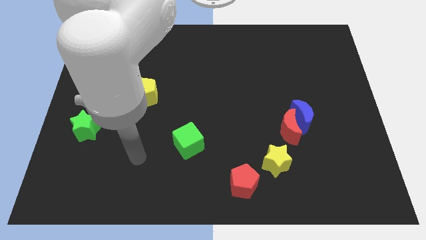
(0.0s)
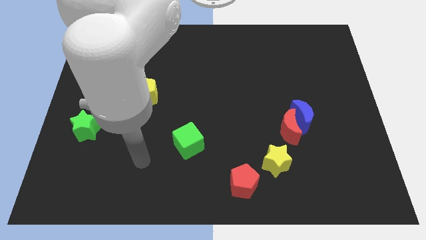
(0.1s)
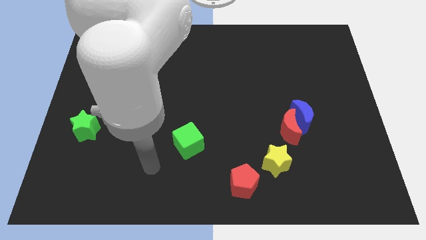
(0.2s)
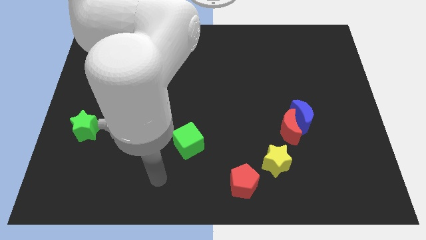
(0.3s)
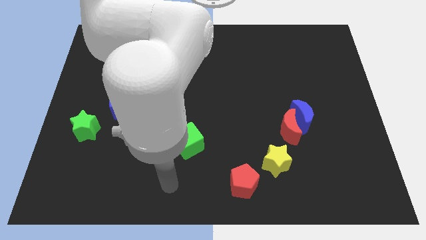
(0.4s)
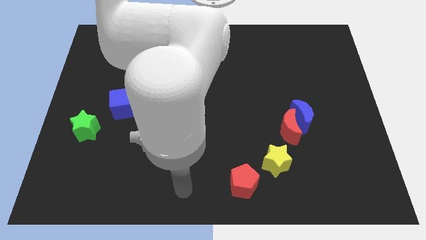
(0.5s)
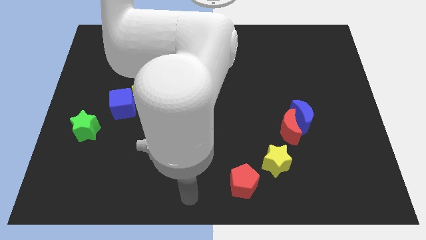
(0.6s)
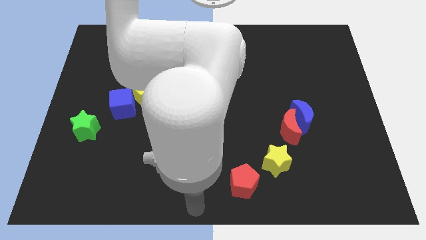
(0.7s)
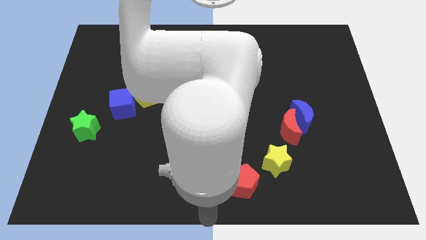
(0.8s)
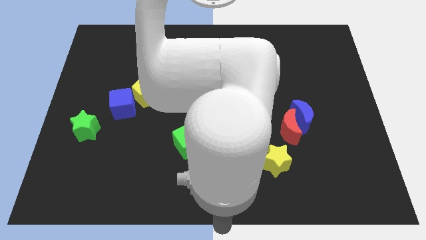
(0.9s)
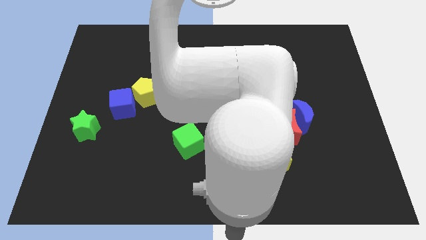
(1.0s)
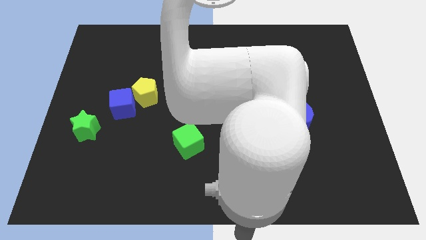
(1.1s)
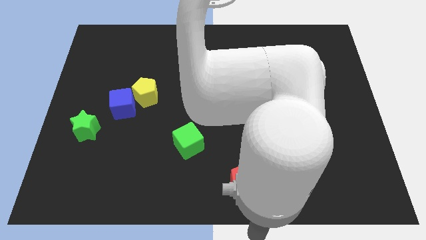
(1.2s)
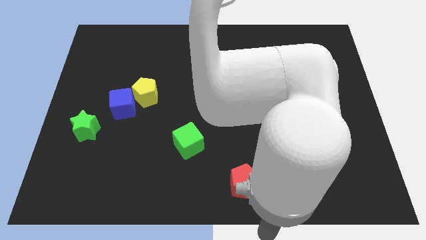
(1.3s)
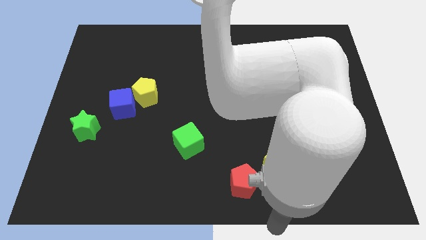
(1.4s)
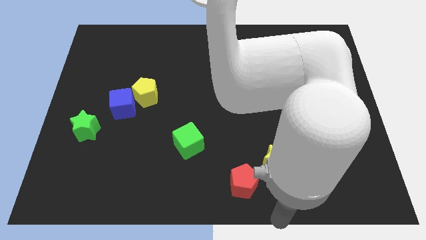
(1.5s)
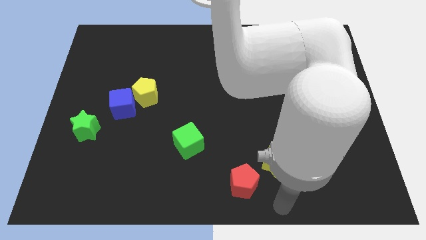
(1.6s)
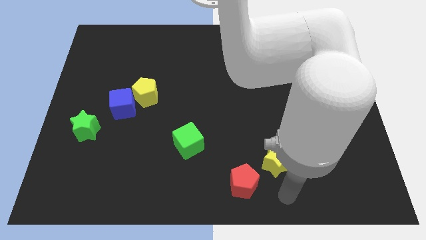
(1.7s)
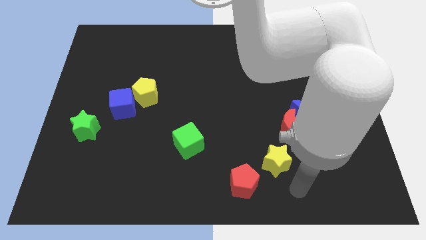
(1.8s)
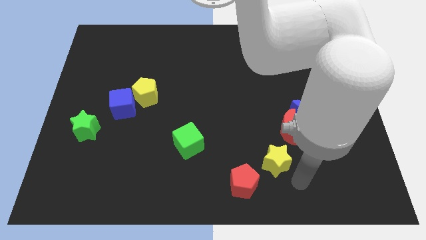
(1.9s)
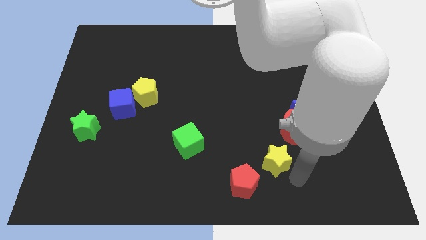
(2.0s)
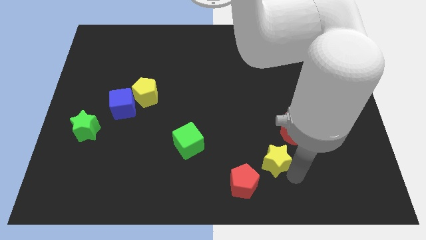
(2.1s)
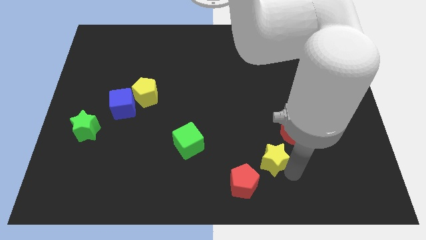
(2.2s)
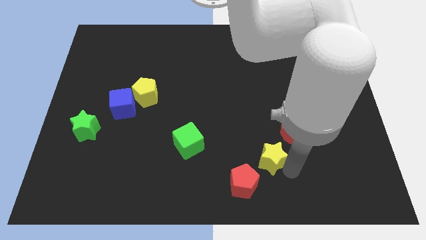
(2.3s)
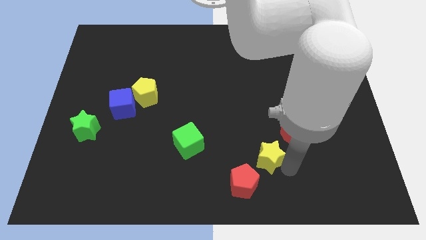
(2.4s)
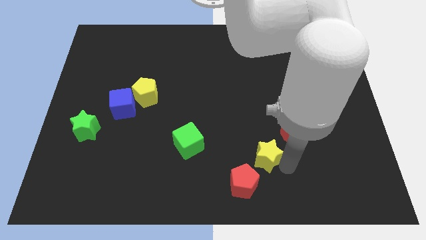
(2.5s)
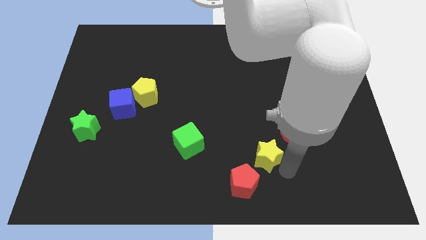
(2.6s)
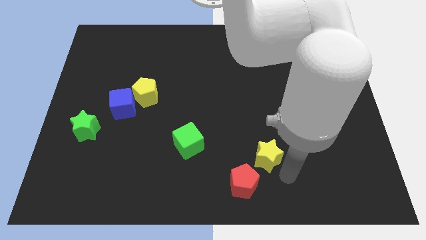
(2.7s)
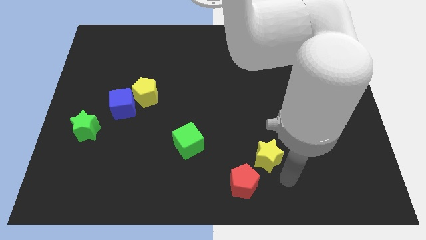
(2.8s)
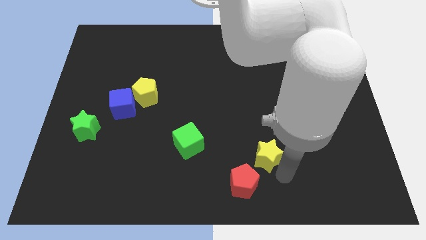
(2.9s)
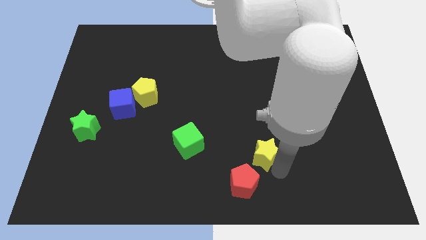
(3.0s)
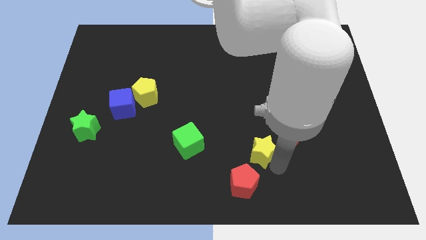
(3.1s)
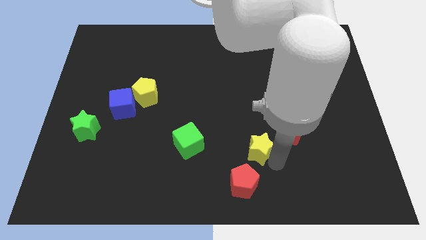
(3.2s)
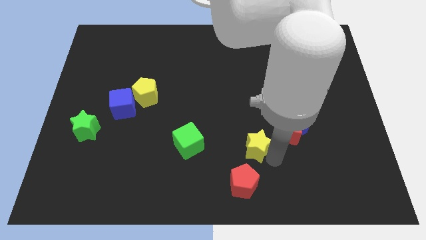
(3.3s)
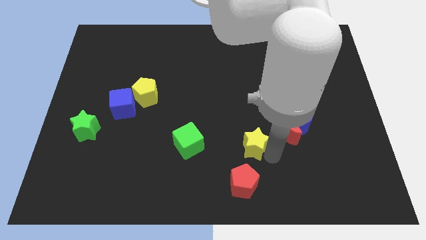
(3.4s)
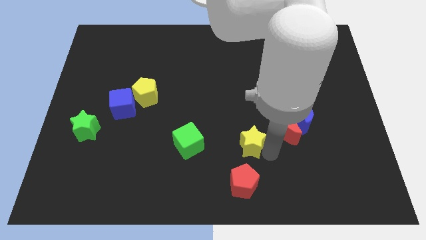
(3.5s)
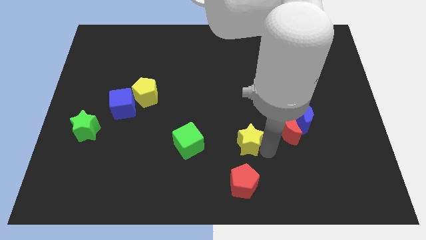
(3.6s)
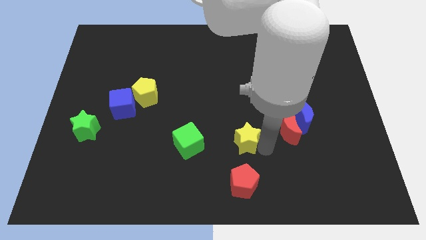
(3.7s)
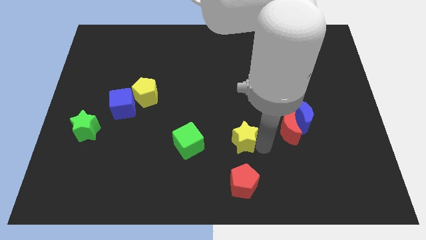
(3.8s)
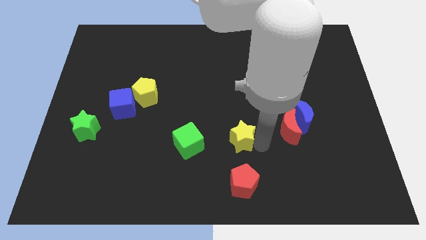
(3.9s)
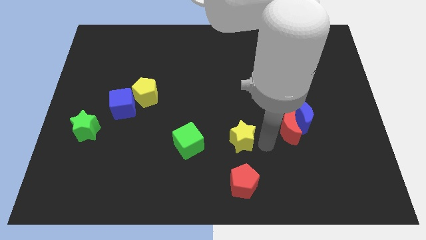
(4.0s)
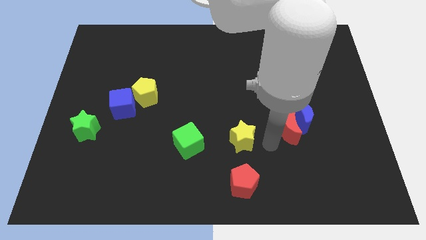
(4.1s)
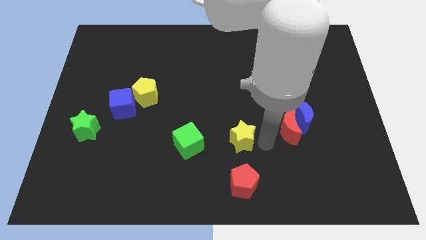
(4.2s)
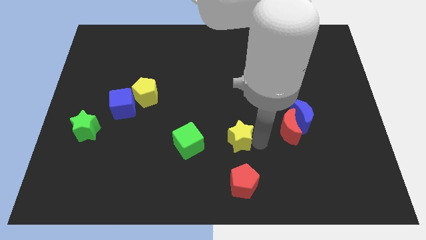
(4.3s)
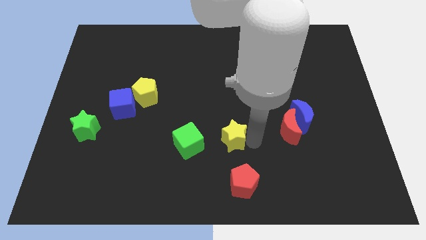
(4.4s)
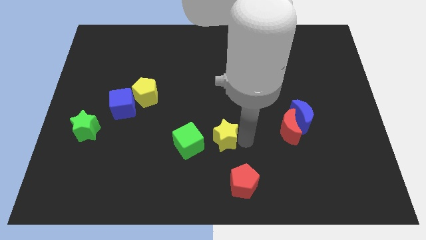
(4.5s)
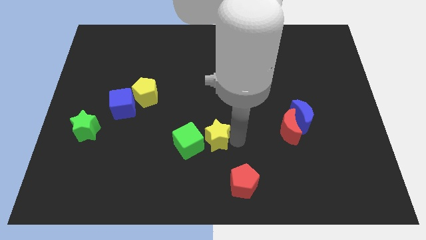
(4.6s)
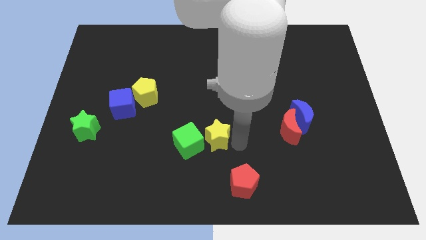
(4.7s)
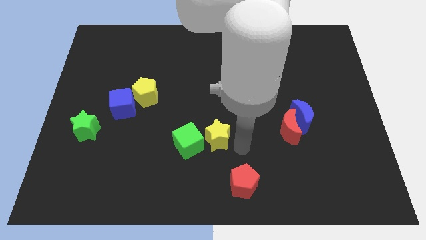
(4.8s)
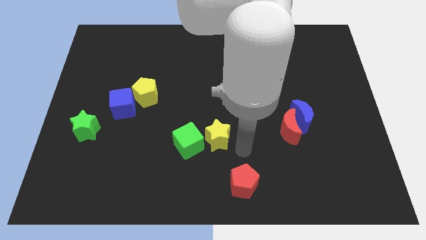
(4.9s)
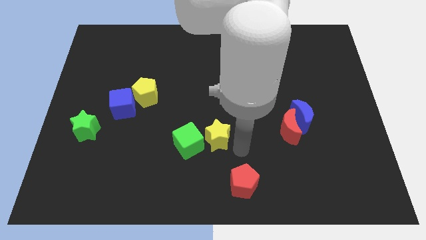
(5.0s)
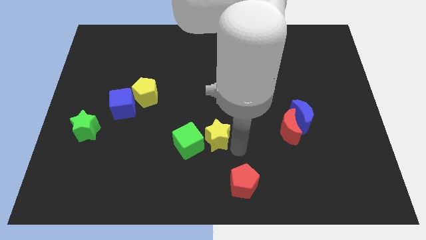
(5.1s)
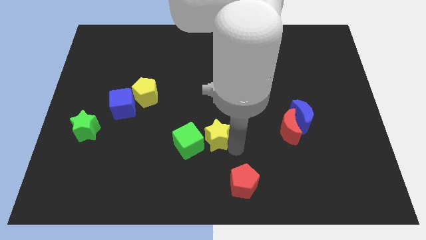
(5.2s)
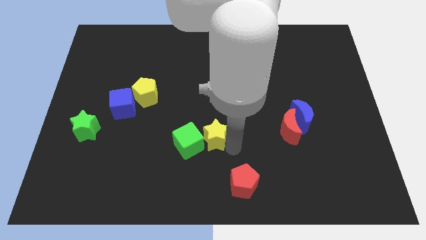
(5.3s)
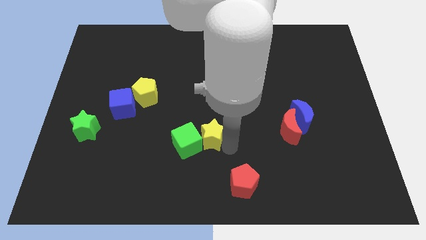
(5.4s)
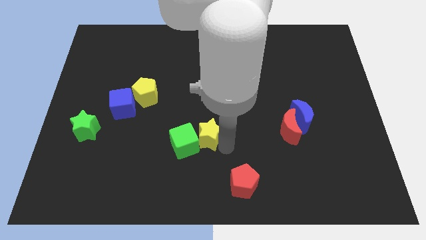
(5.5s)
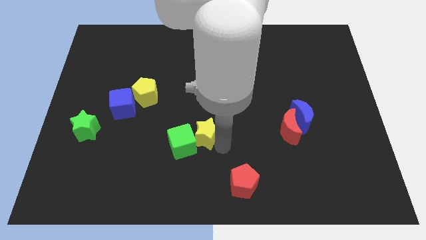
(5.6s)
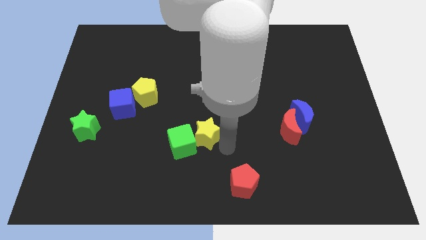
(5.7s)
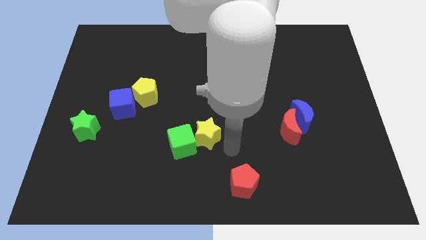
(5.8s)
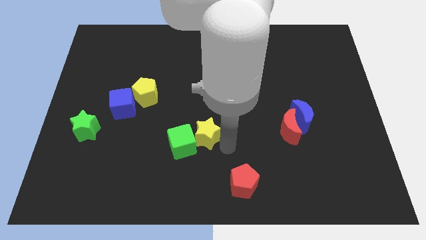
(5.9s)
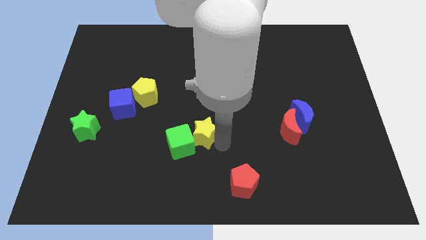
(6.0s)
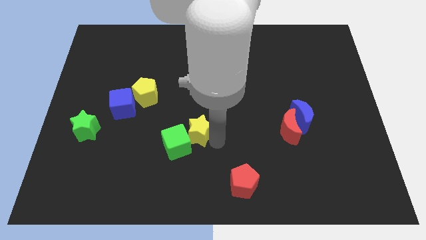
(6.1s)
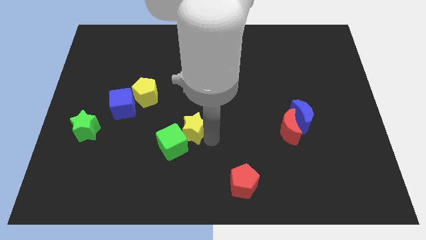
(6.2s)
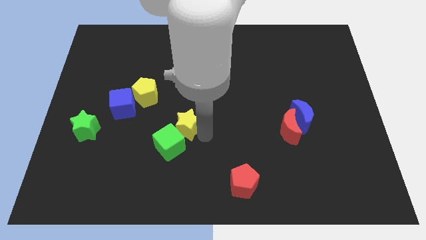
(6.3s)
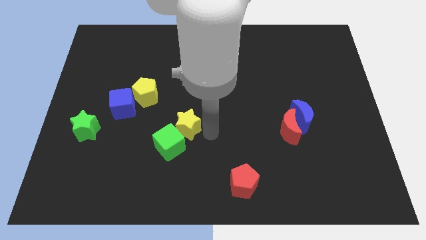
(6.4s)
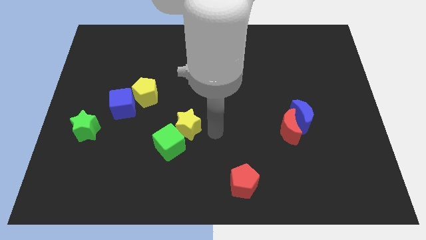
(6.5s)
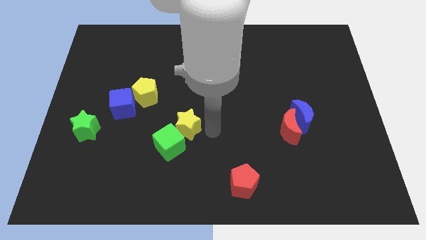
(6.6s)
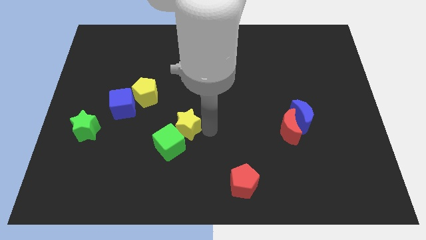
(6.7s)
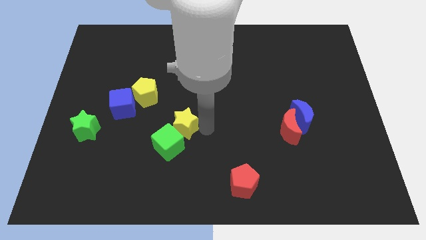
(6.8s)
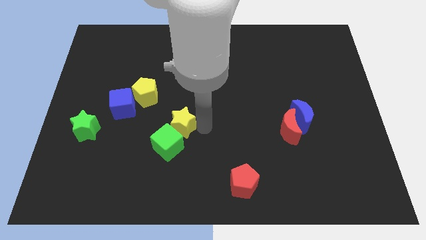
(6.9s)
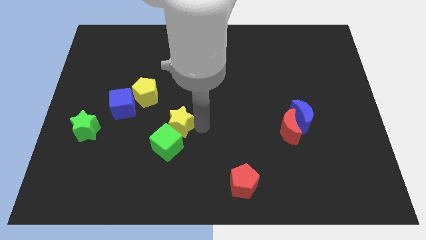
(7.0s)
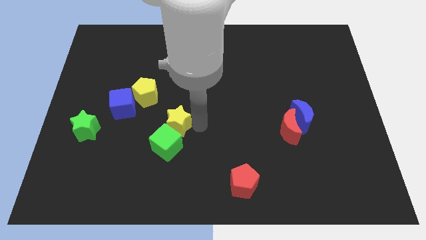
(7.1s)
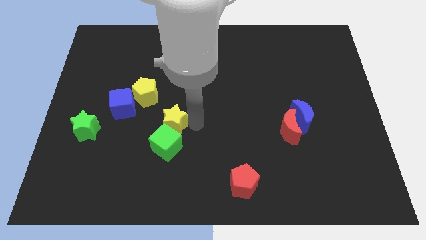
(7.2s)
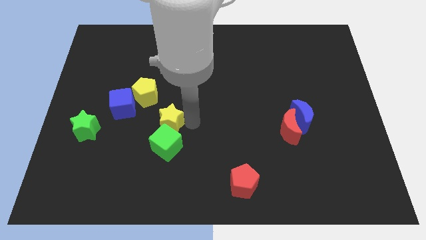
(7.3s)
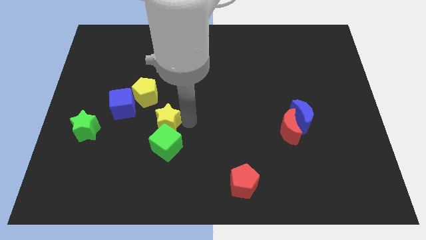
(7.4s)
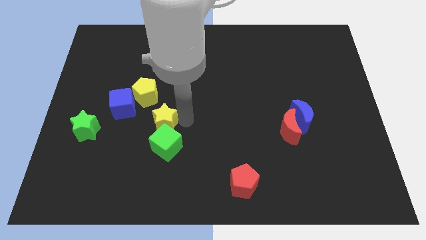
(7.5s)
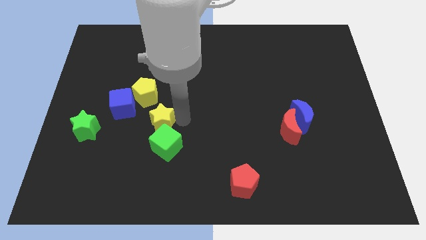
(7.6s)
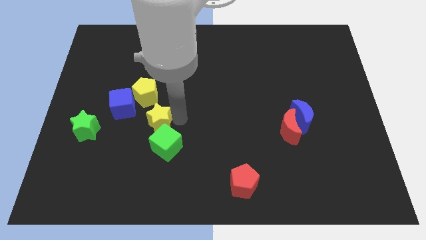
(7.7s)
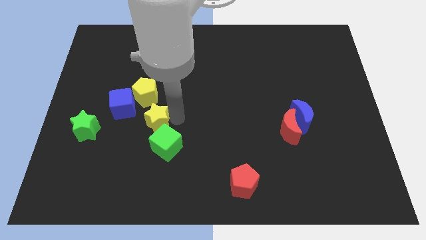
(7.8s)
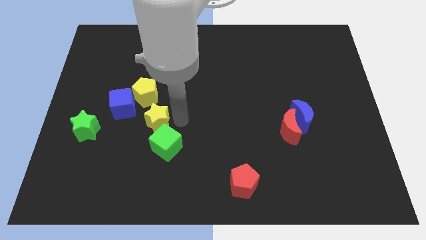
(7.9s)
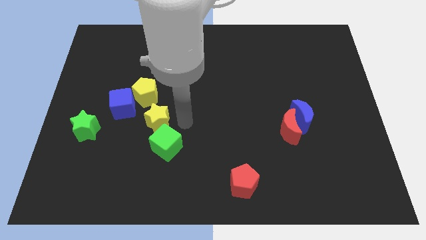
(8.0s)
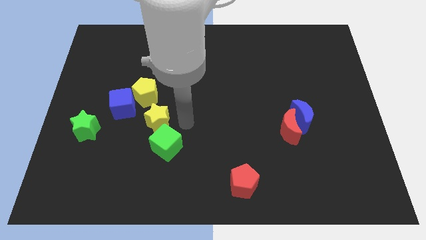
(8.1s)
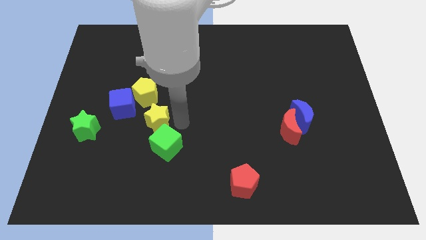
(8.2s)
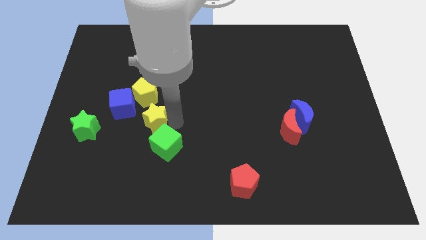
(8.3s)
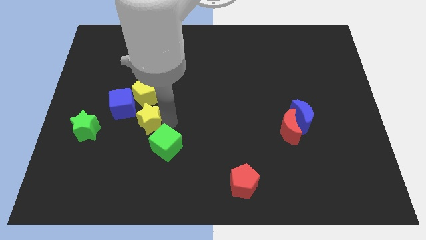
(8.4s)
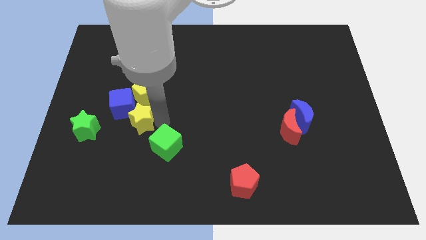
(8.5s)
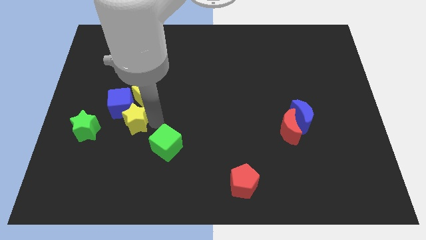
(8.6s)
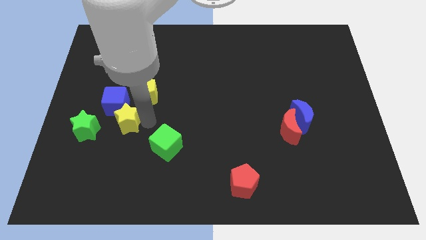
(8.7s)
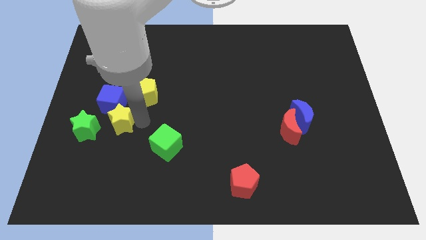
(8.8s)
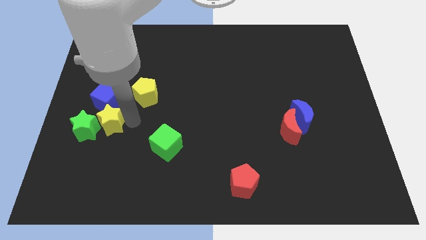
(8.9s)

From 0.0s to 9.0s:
put the yellow star to the green star
